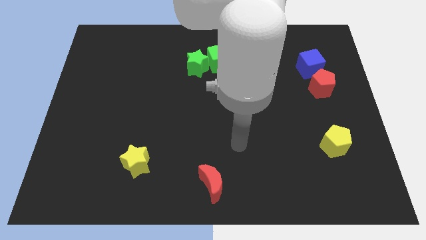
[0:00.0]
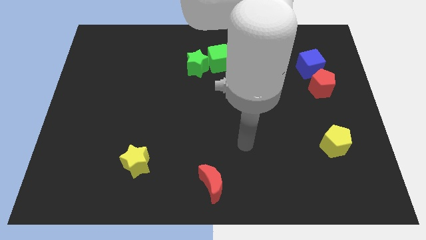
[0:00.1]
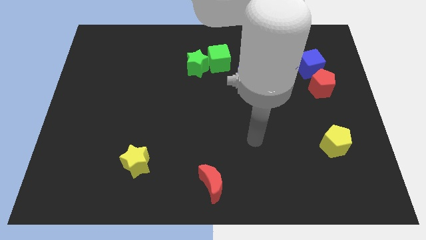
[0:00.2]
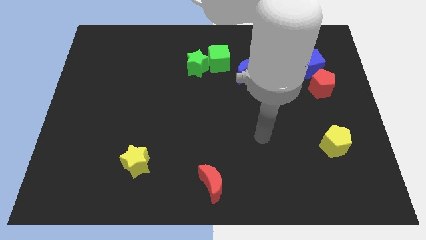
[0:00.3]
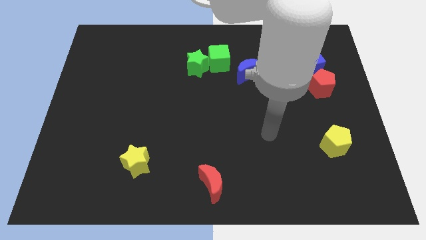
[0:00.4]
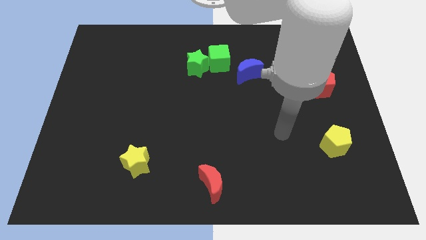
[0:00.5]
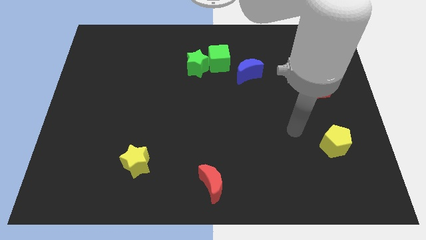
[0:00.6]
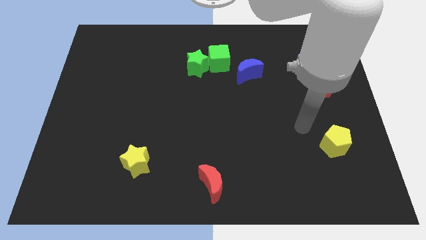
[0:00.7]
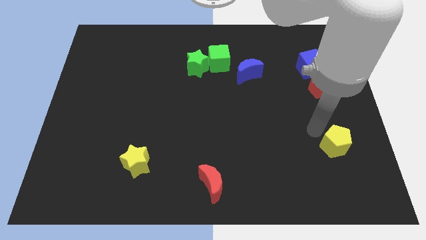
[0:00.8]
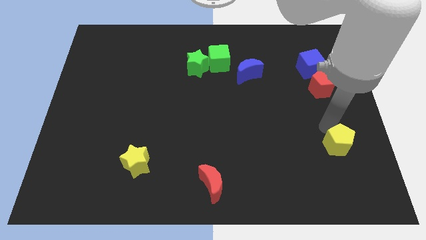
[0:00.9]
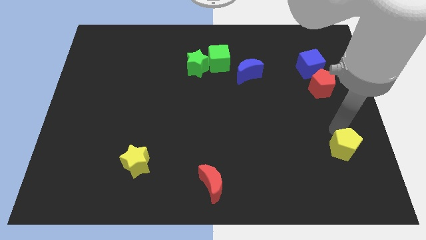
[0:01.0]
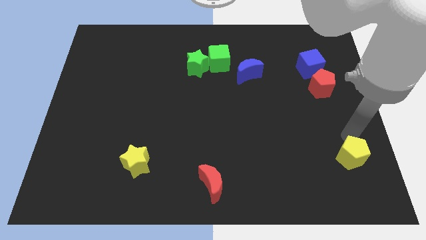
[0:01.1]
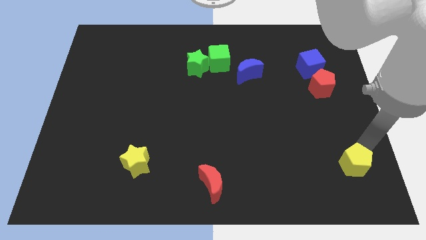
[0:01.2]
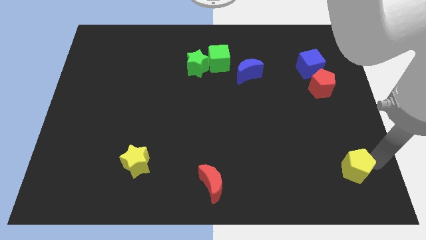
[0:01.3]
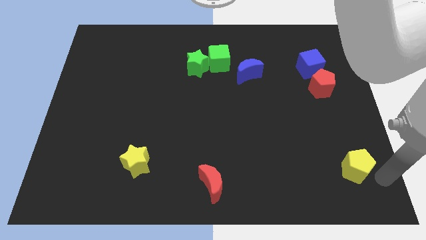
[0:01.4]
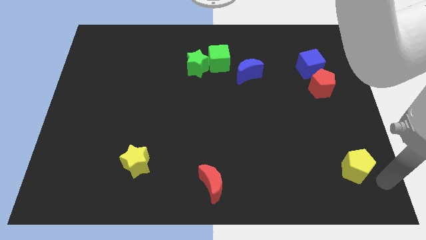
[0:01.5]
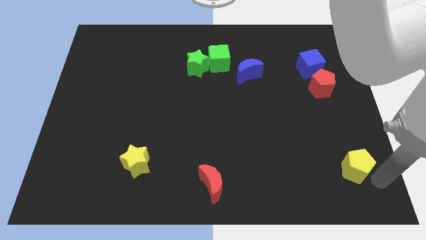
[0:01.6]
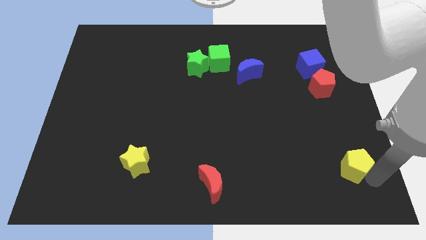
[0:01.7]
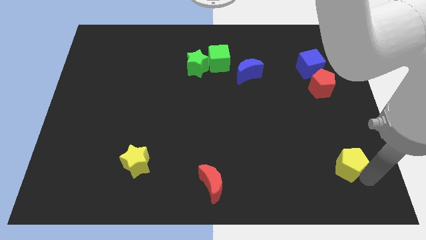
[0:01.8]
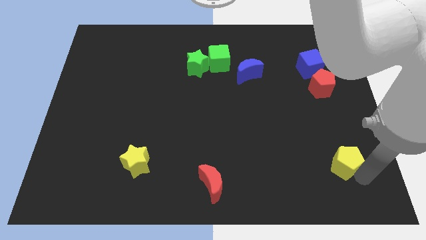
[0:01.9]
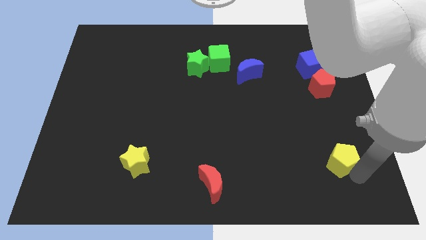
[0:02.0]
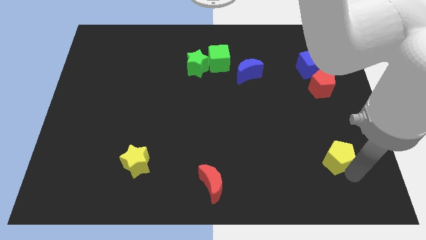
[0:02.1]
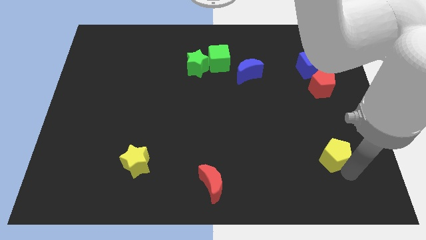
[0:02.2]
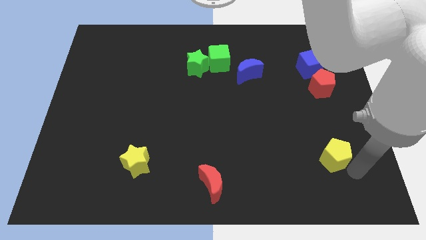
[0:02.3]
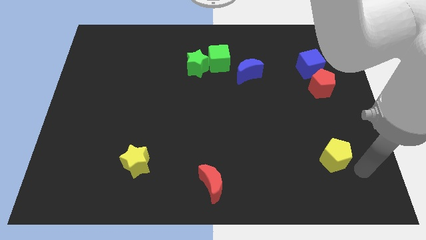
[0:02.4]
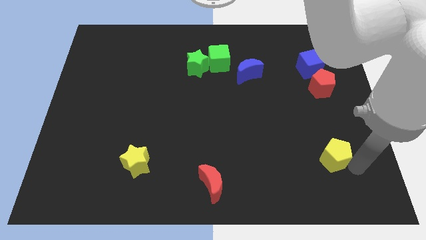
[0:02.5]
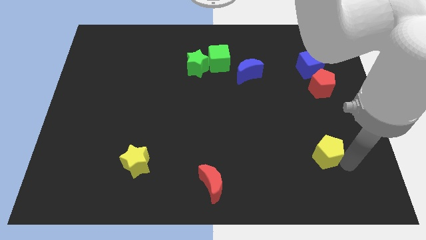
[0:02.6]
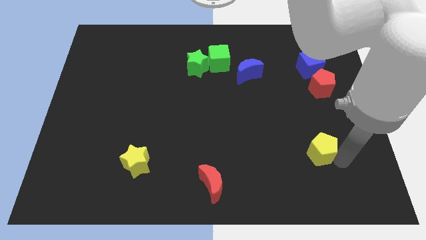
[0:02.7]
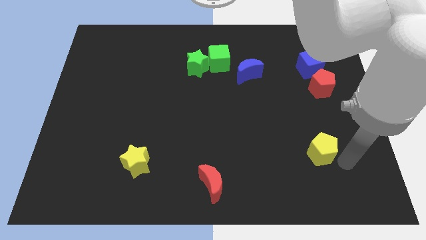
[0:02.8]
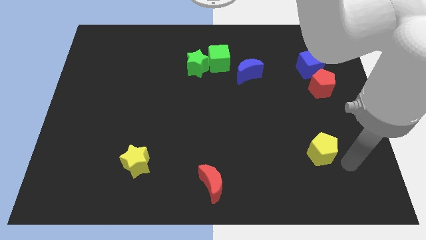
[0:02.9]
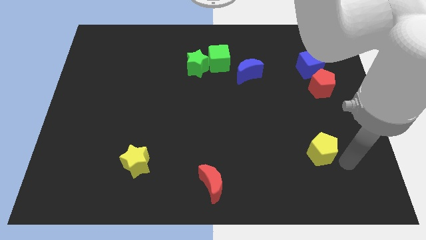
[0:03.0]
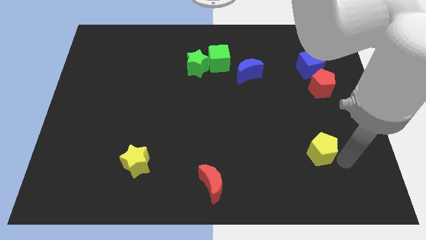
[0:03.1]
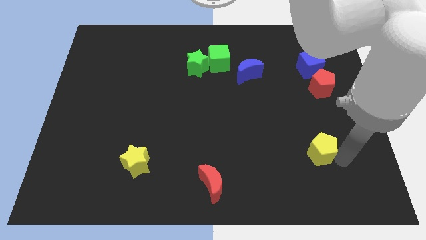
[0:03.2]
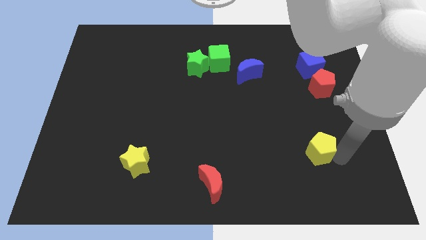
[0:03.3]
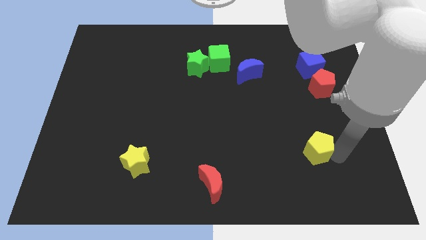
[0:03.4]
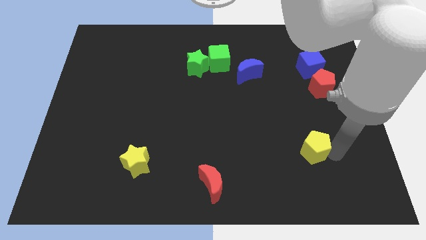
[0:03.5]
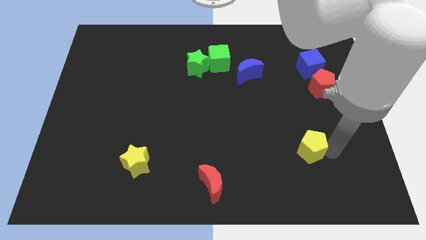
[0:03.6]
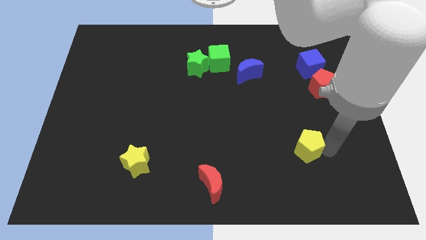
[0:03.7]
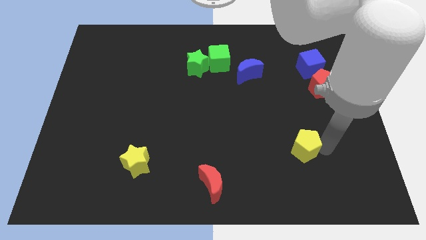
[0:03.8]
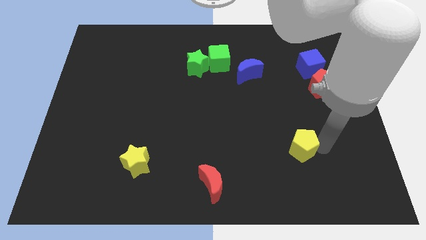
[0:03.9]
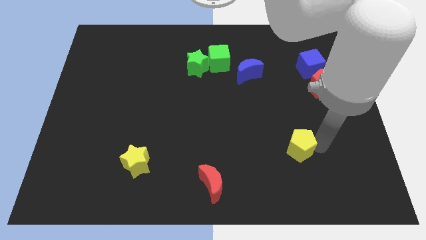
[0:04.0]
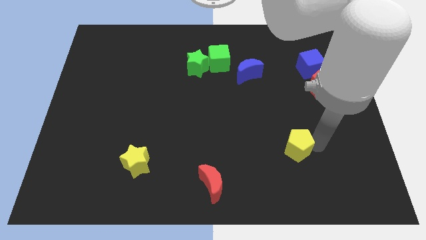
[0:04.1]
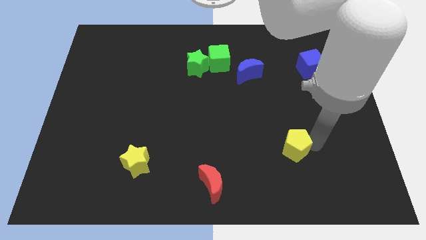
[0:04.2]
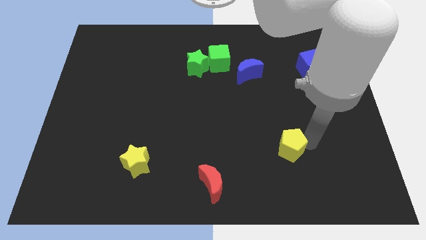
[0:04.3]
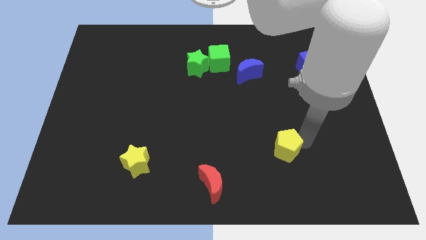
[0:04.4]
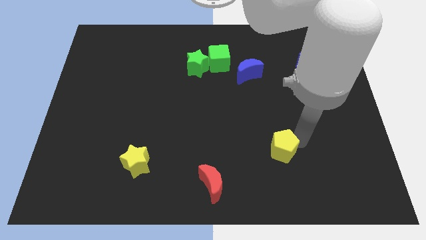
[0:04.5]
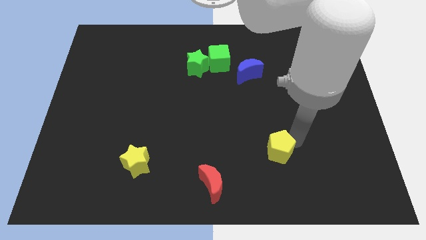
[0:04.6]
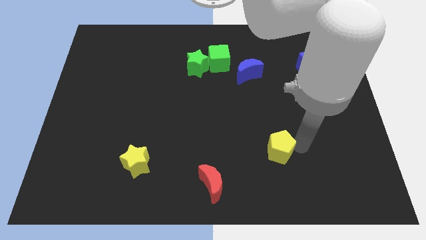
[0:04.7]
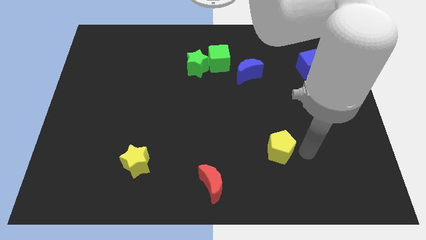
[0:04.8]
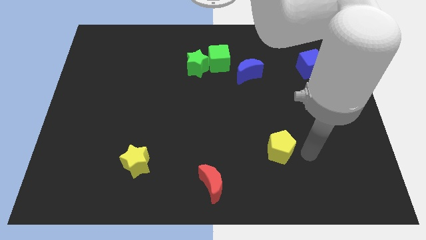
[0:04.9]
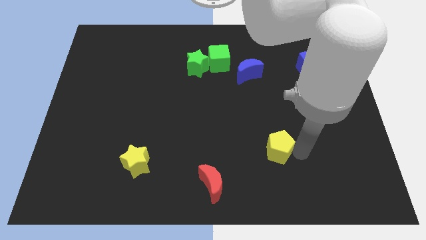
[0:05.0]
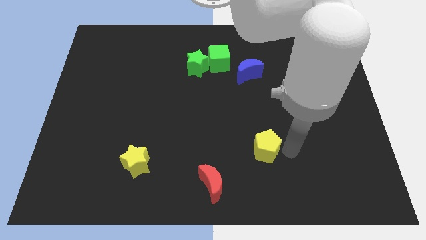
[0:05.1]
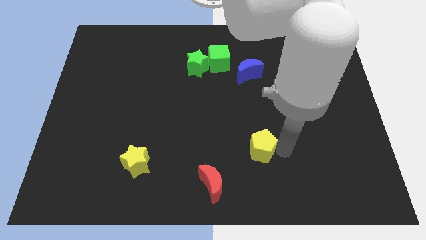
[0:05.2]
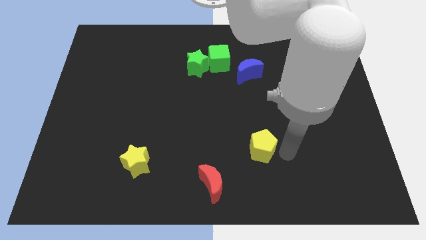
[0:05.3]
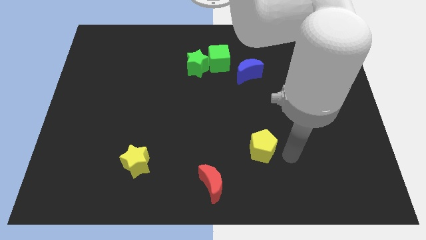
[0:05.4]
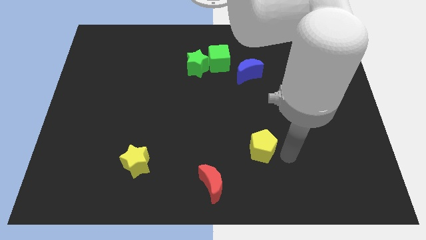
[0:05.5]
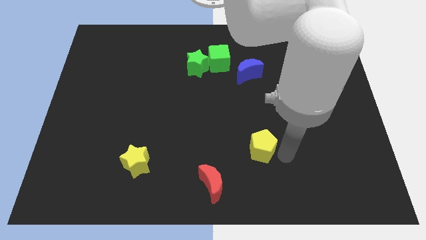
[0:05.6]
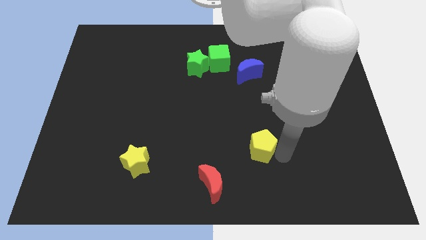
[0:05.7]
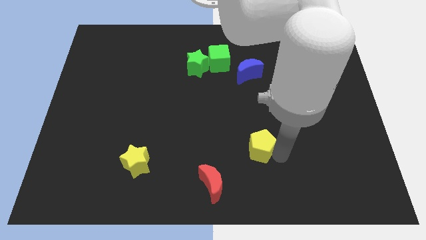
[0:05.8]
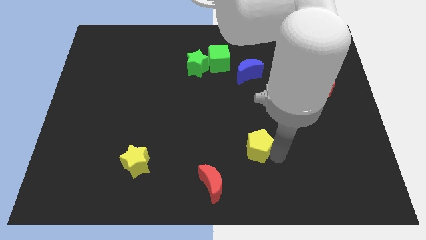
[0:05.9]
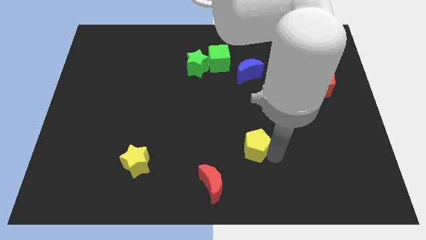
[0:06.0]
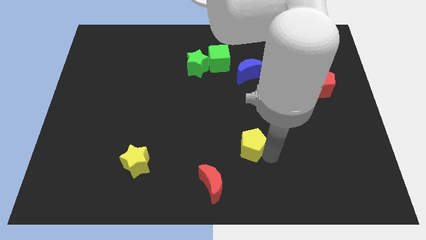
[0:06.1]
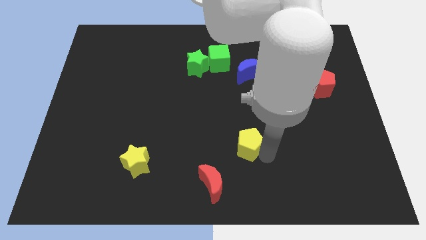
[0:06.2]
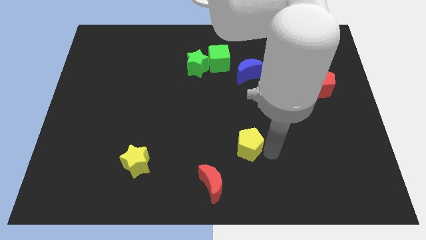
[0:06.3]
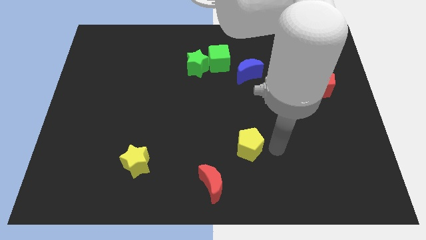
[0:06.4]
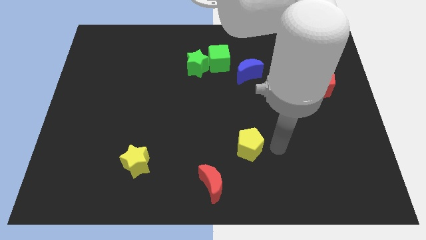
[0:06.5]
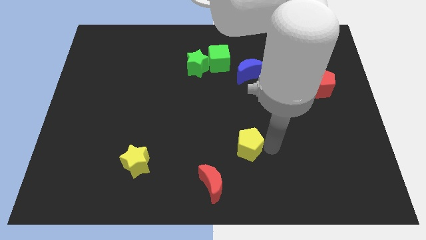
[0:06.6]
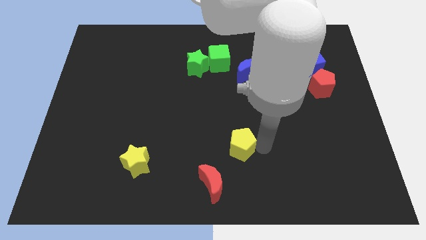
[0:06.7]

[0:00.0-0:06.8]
push the yellow pentagon left

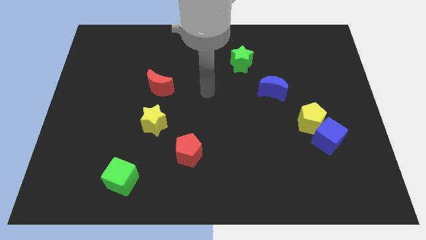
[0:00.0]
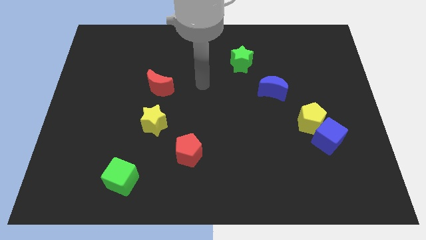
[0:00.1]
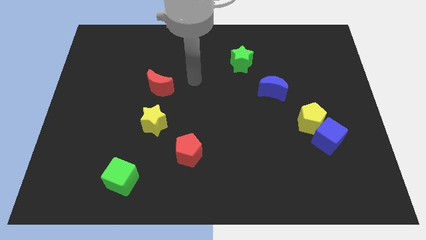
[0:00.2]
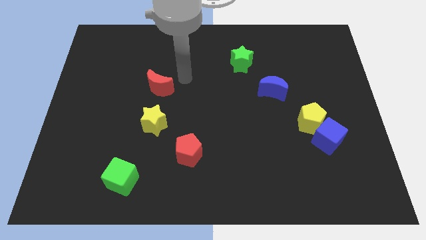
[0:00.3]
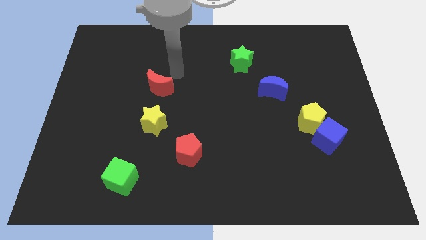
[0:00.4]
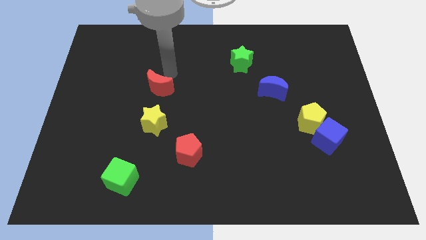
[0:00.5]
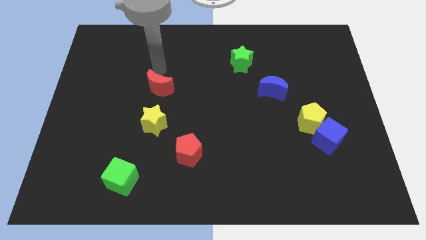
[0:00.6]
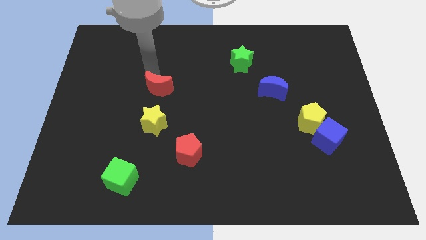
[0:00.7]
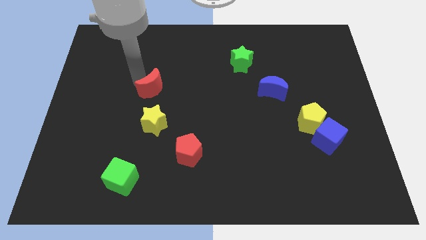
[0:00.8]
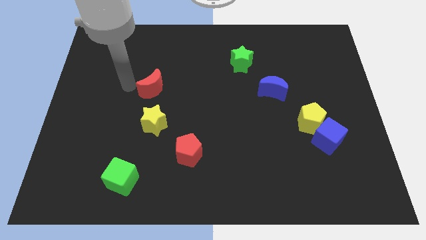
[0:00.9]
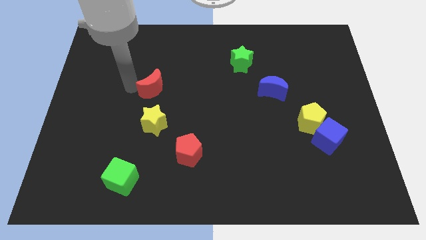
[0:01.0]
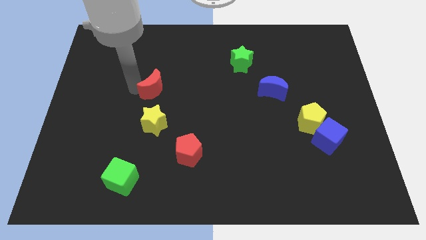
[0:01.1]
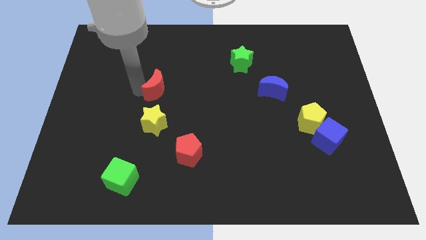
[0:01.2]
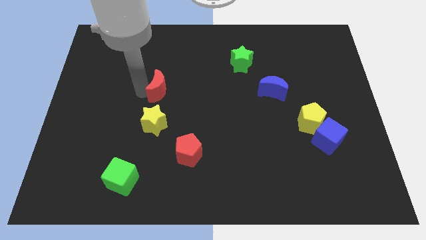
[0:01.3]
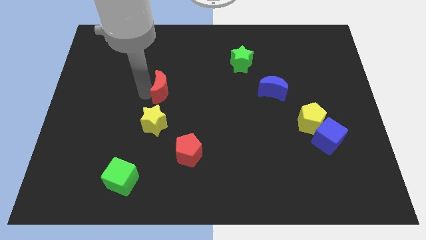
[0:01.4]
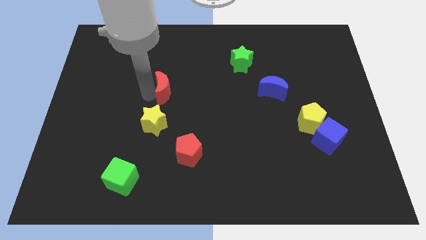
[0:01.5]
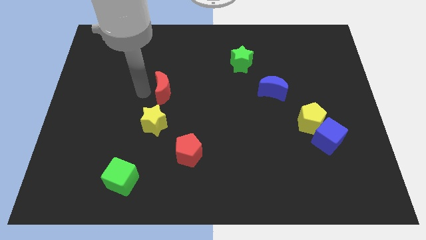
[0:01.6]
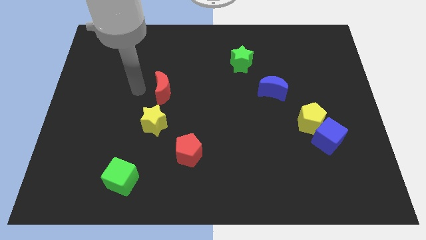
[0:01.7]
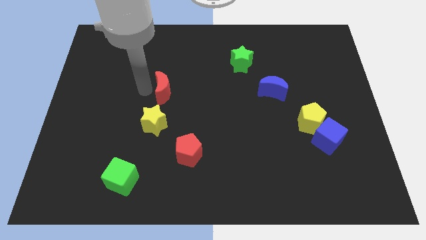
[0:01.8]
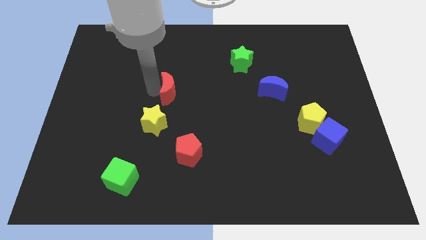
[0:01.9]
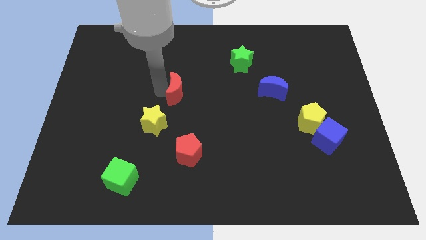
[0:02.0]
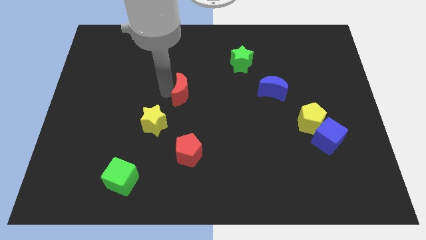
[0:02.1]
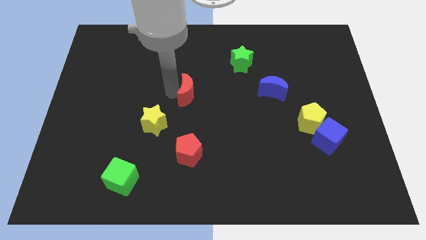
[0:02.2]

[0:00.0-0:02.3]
push the red moon a little to the right
